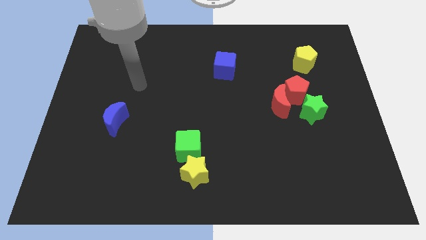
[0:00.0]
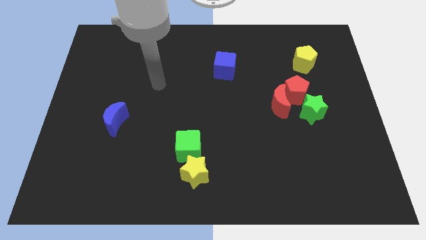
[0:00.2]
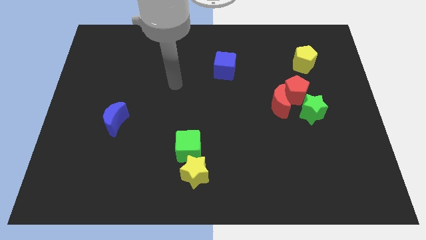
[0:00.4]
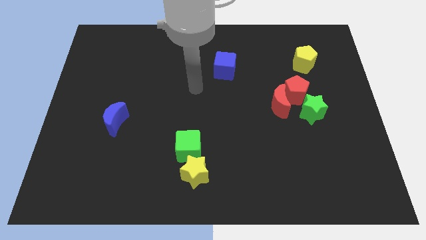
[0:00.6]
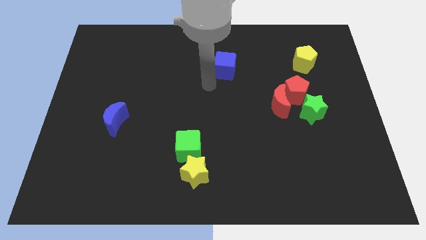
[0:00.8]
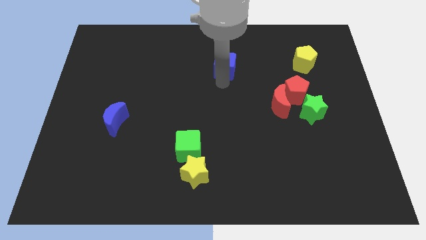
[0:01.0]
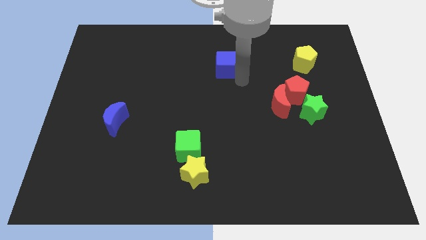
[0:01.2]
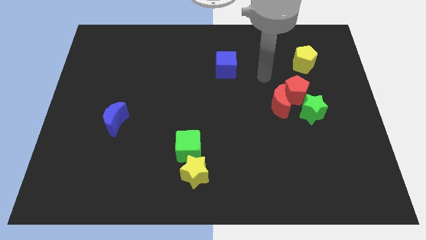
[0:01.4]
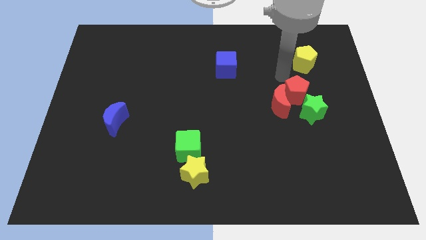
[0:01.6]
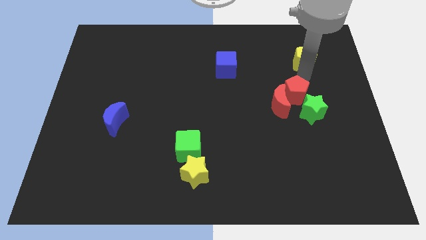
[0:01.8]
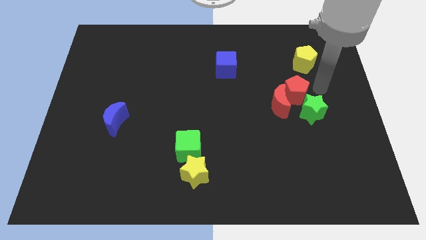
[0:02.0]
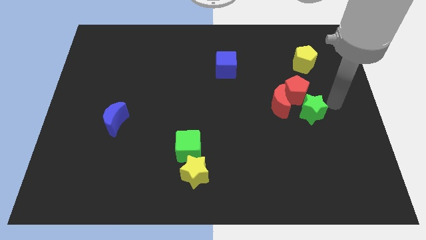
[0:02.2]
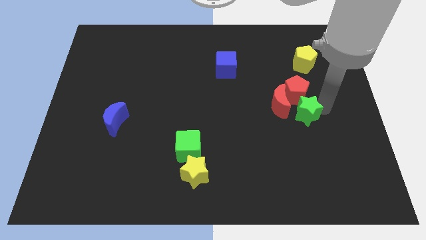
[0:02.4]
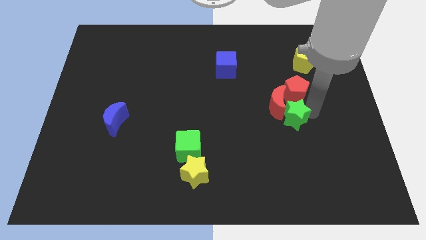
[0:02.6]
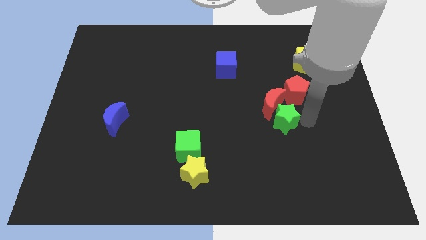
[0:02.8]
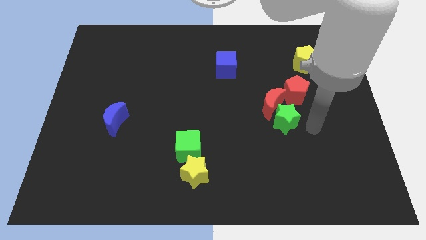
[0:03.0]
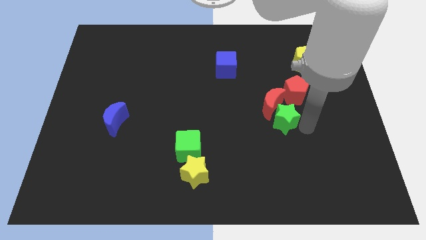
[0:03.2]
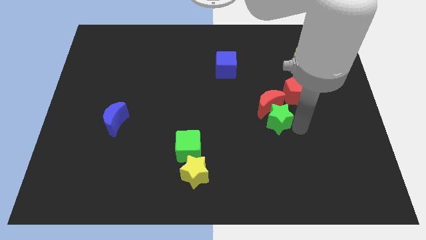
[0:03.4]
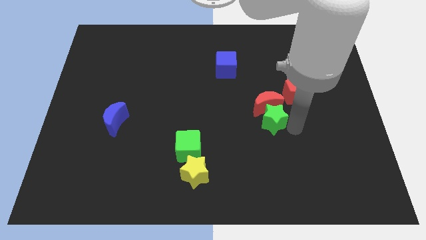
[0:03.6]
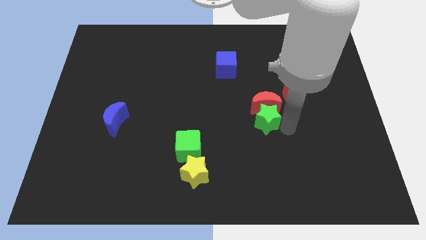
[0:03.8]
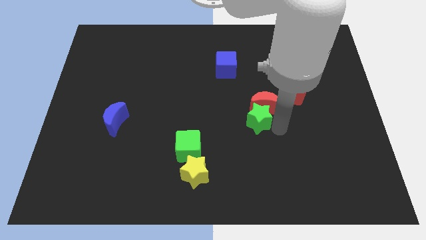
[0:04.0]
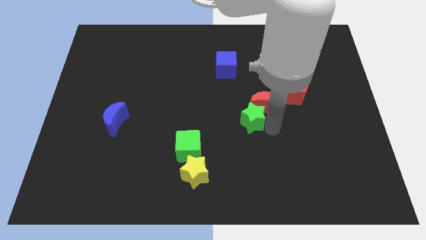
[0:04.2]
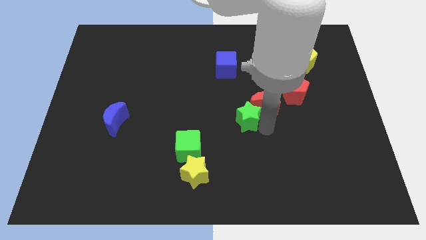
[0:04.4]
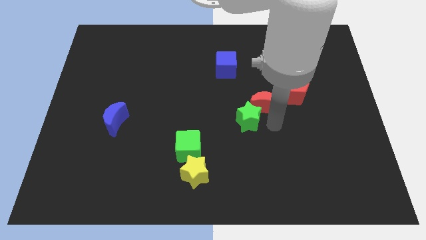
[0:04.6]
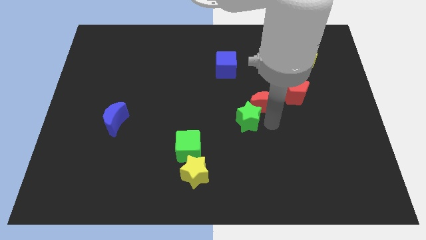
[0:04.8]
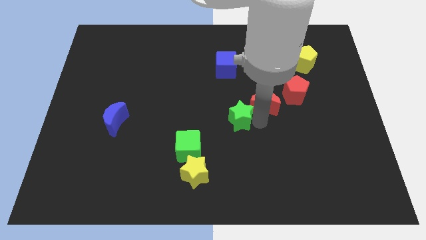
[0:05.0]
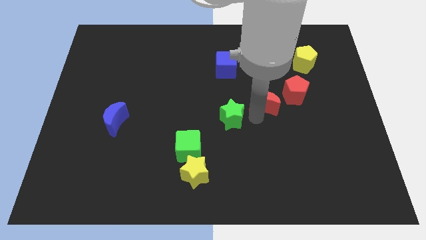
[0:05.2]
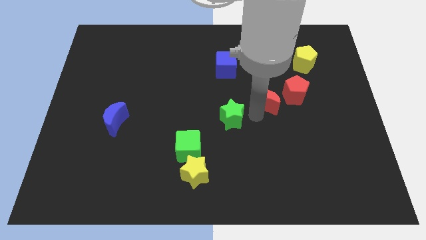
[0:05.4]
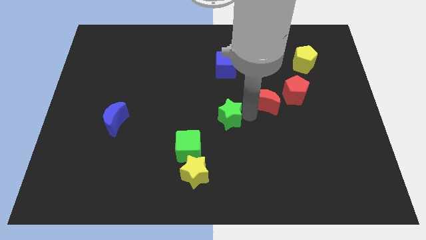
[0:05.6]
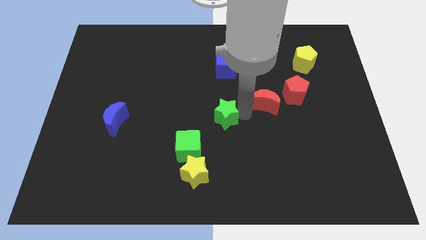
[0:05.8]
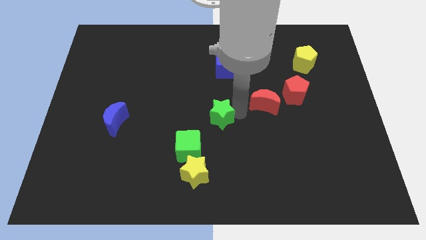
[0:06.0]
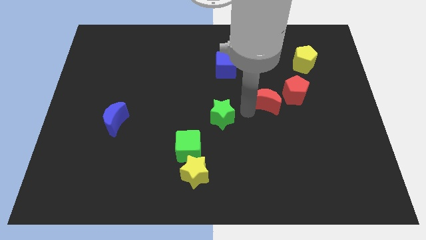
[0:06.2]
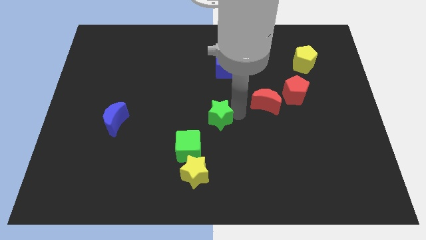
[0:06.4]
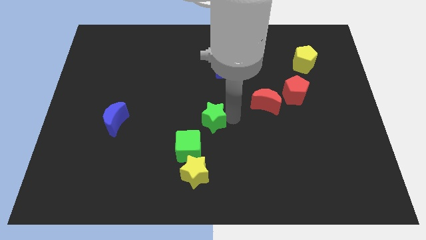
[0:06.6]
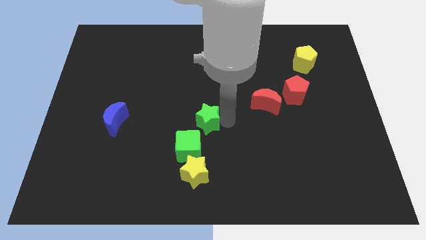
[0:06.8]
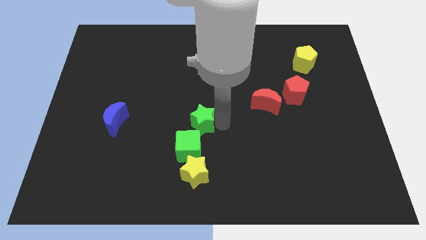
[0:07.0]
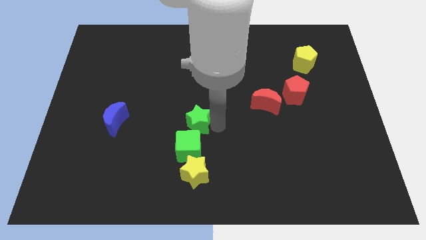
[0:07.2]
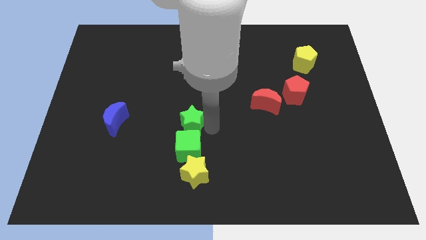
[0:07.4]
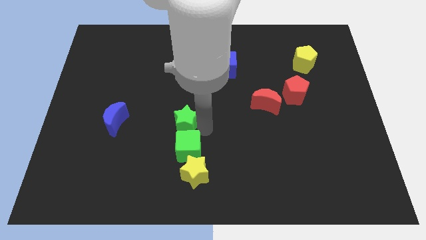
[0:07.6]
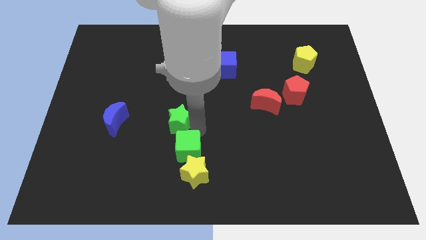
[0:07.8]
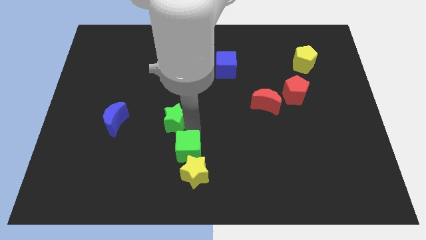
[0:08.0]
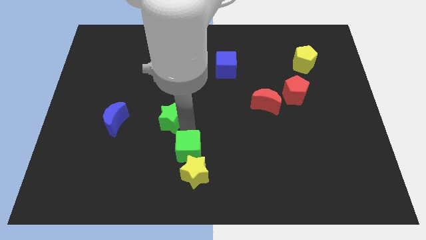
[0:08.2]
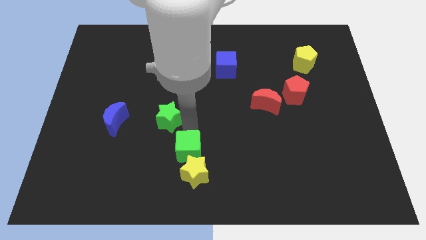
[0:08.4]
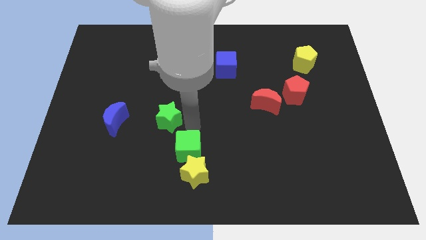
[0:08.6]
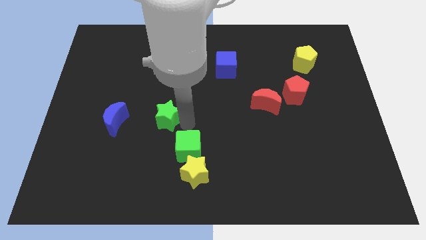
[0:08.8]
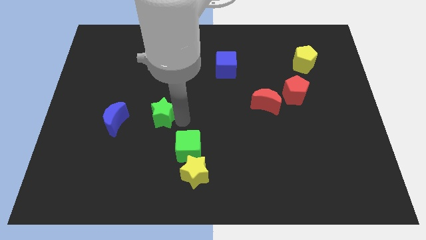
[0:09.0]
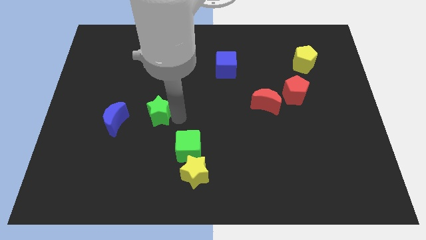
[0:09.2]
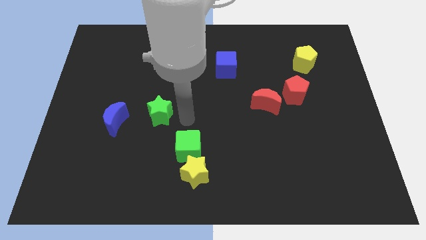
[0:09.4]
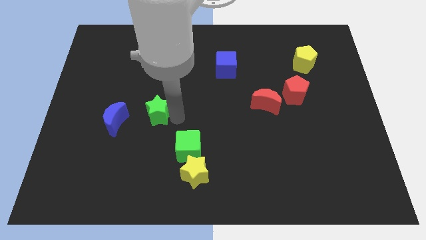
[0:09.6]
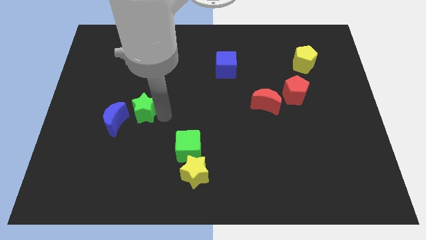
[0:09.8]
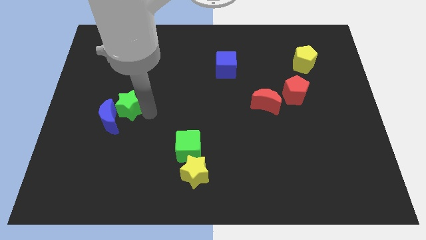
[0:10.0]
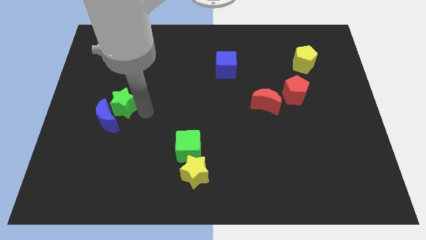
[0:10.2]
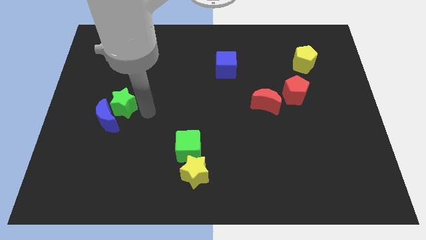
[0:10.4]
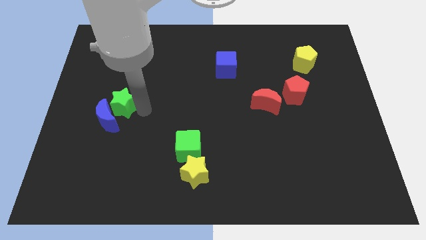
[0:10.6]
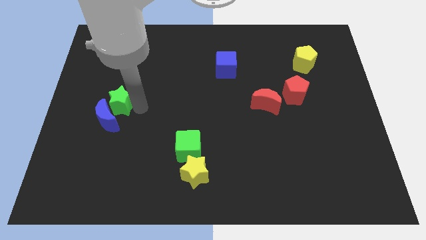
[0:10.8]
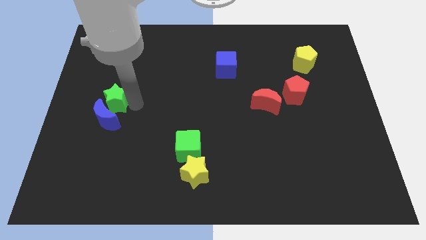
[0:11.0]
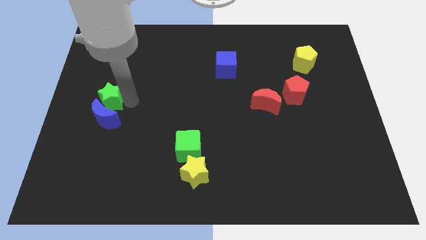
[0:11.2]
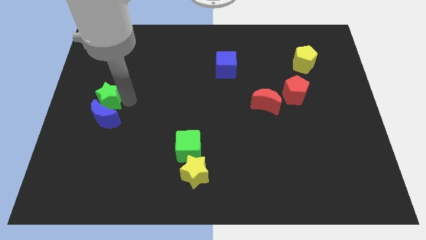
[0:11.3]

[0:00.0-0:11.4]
move the green star to the center left

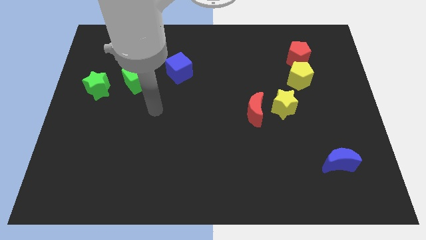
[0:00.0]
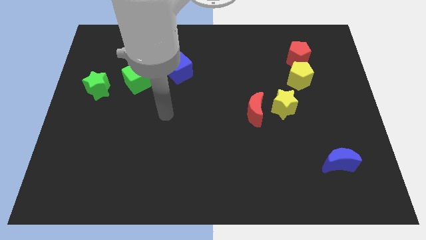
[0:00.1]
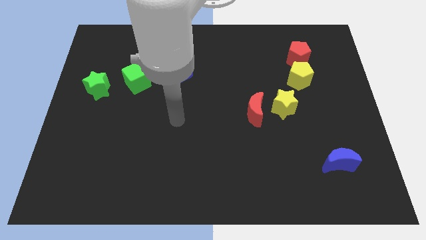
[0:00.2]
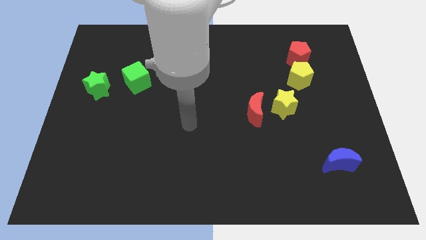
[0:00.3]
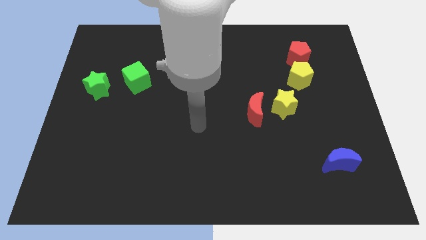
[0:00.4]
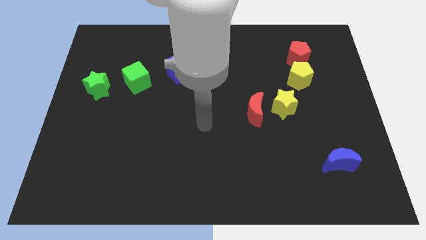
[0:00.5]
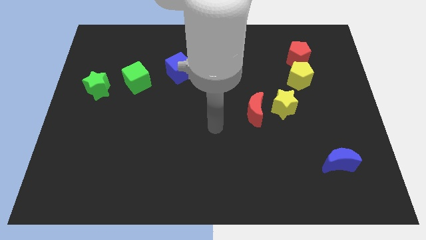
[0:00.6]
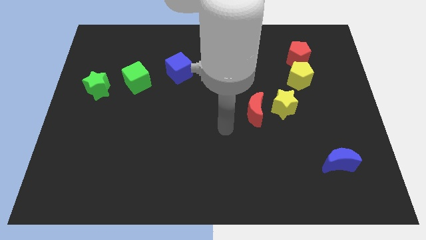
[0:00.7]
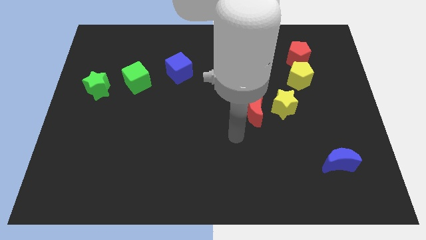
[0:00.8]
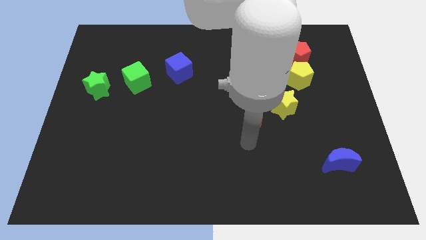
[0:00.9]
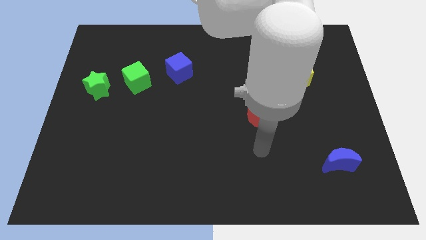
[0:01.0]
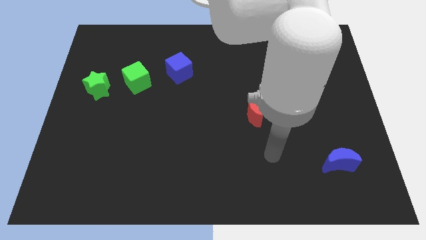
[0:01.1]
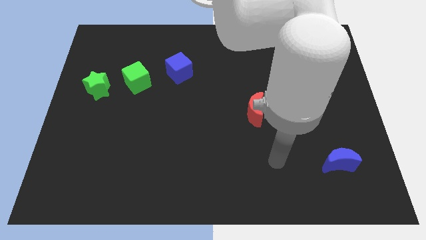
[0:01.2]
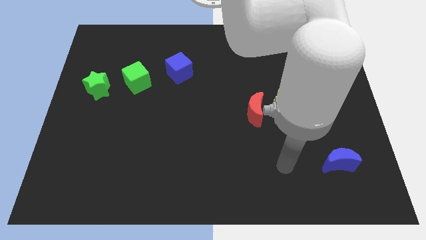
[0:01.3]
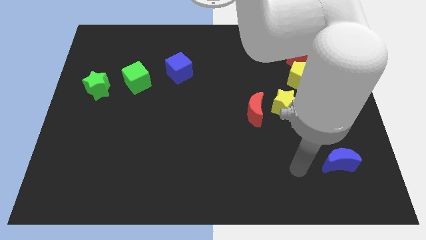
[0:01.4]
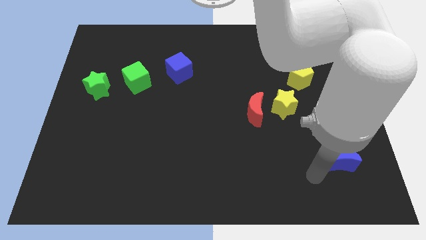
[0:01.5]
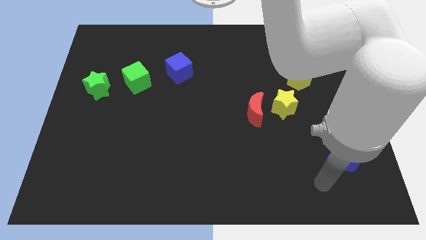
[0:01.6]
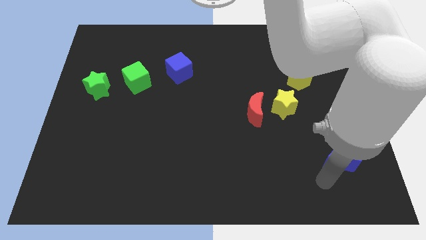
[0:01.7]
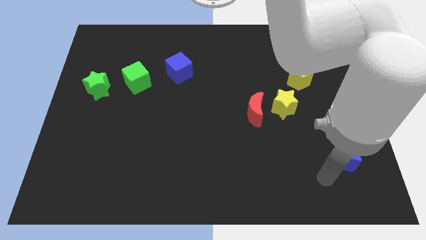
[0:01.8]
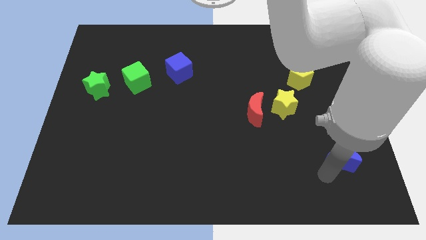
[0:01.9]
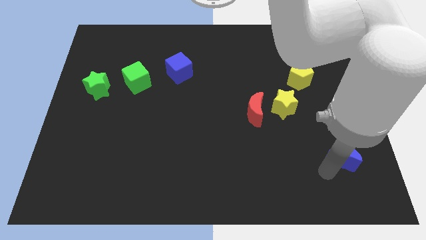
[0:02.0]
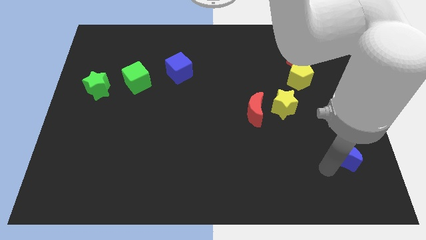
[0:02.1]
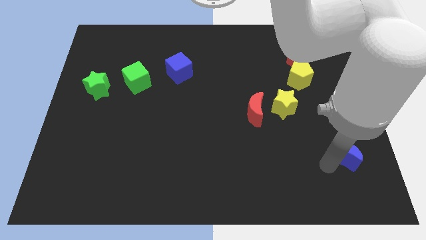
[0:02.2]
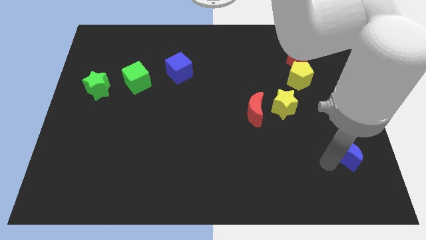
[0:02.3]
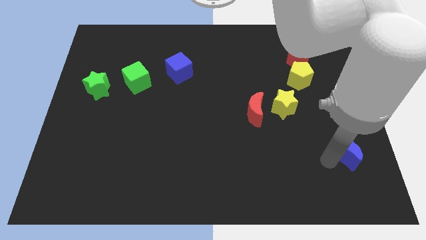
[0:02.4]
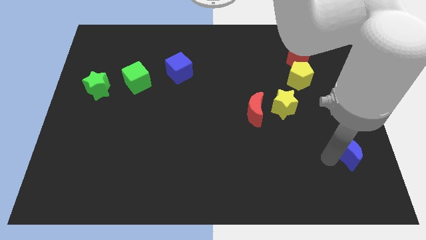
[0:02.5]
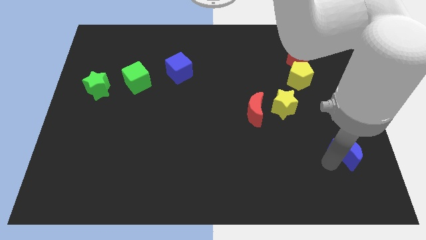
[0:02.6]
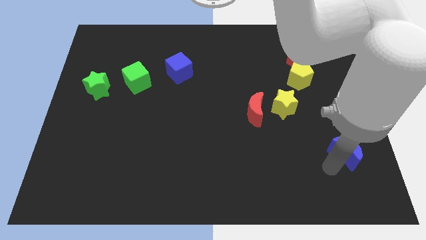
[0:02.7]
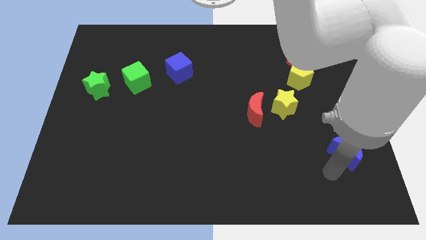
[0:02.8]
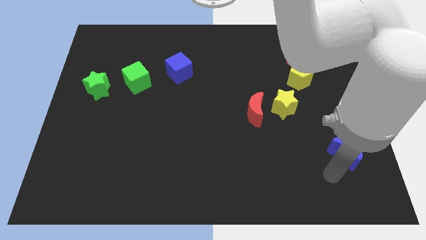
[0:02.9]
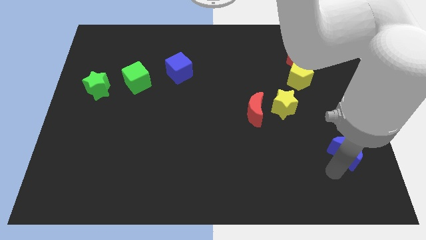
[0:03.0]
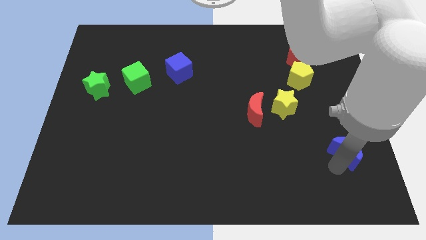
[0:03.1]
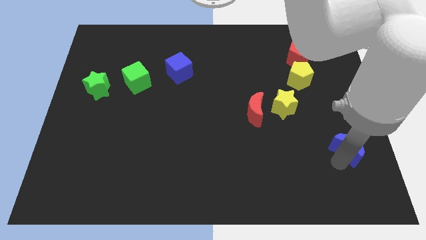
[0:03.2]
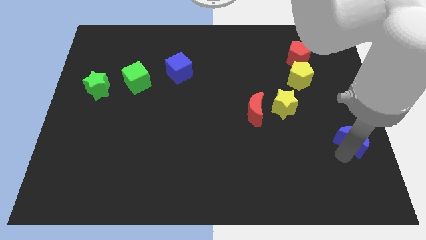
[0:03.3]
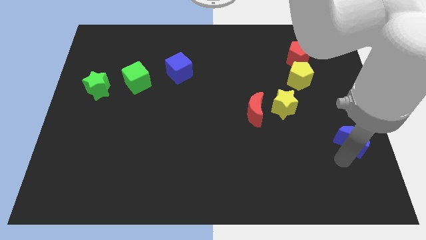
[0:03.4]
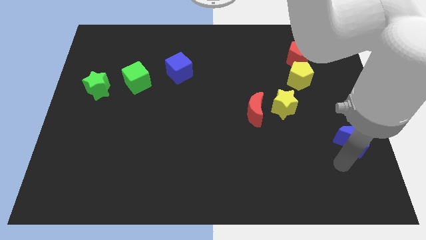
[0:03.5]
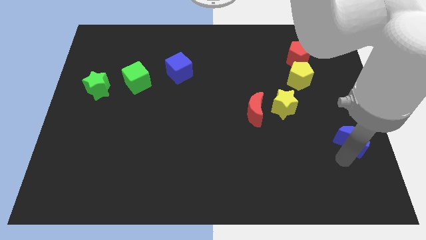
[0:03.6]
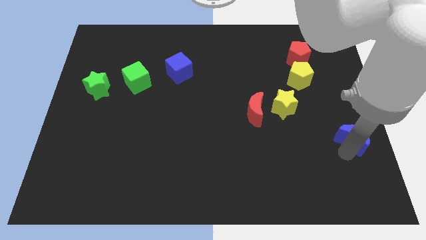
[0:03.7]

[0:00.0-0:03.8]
put the blue moon to the center right
